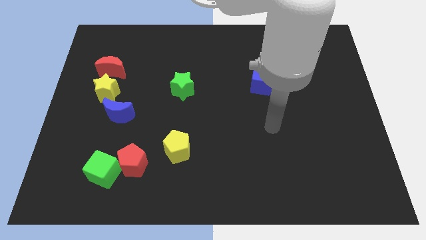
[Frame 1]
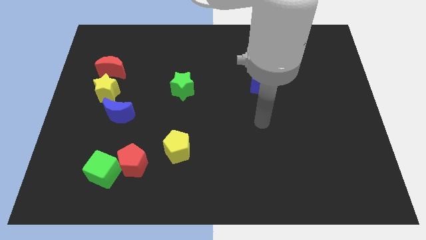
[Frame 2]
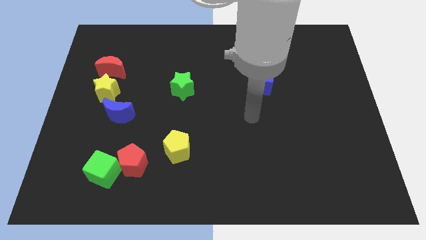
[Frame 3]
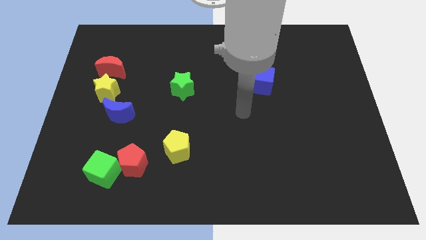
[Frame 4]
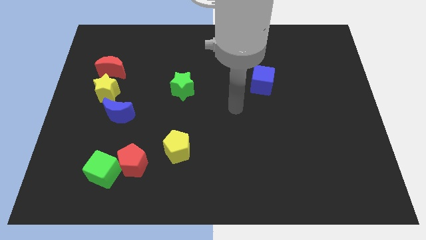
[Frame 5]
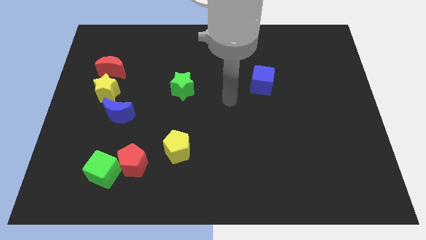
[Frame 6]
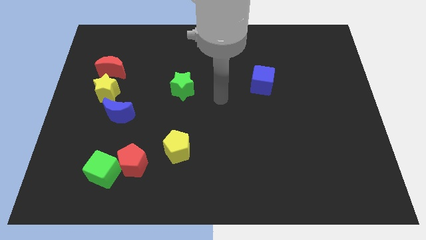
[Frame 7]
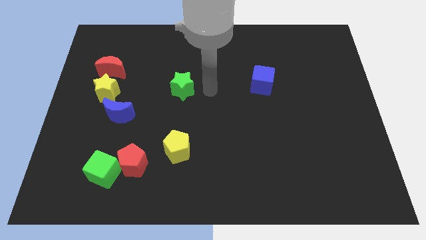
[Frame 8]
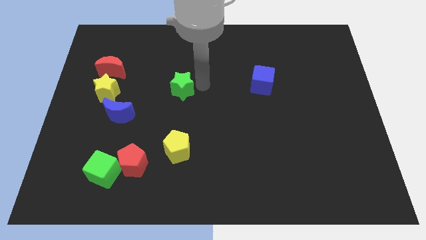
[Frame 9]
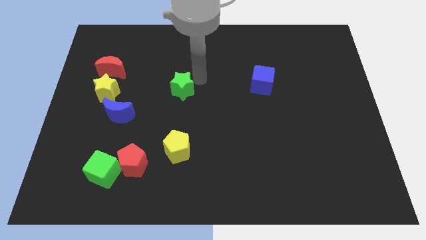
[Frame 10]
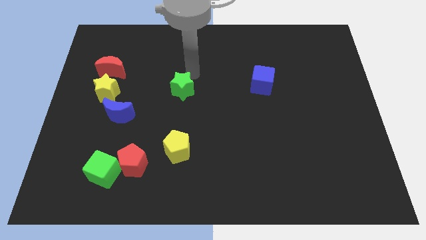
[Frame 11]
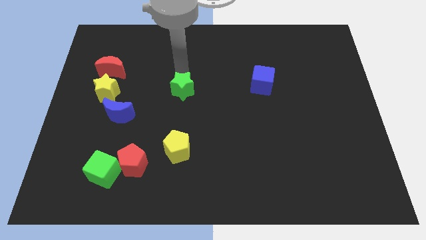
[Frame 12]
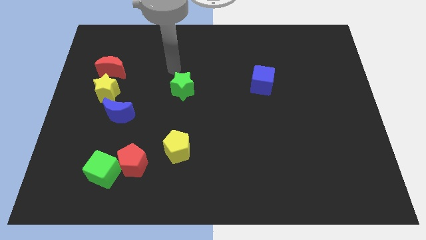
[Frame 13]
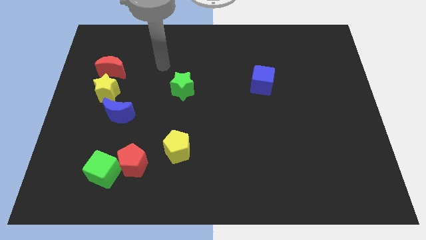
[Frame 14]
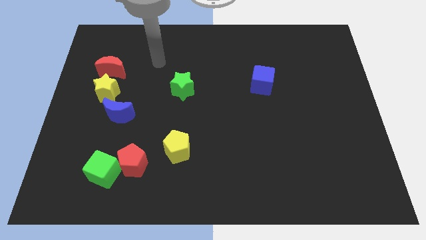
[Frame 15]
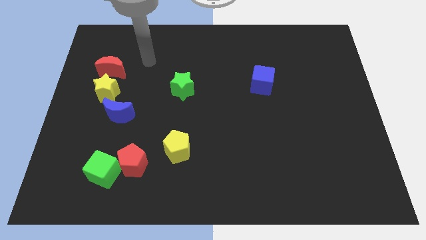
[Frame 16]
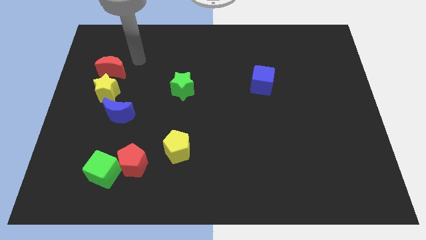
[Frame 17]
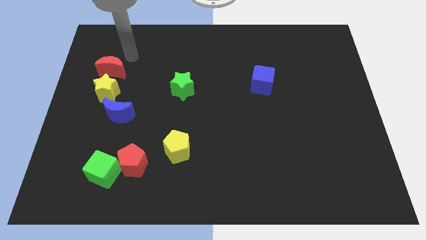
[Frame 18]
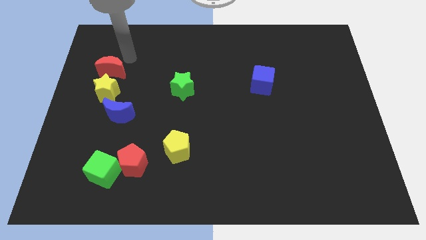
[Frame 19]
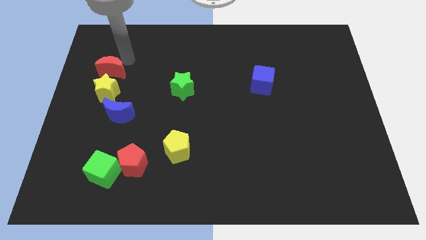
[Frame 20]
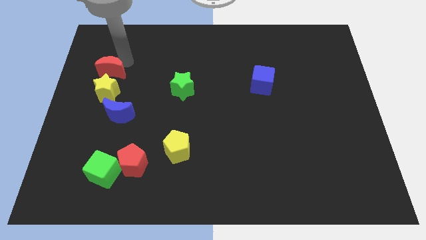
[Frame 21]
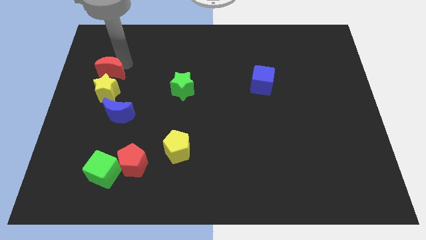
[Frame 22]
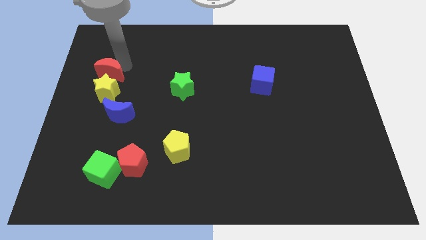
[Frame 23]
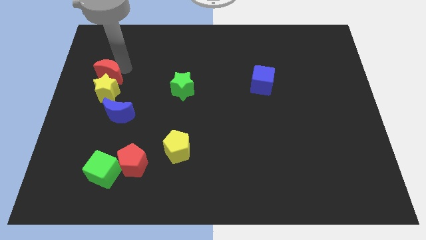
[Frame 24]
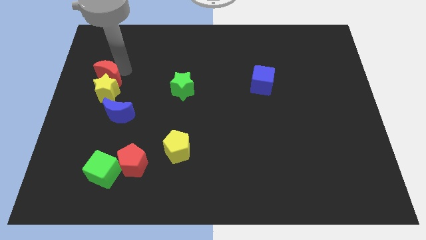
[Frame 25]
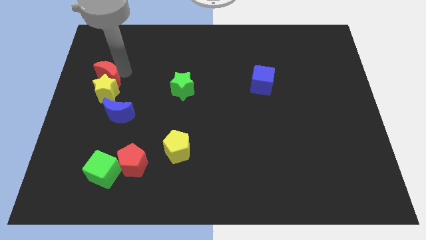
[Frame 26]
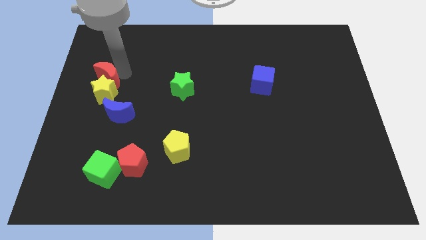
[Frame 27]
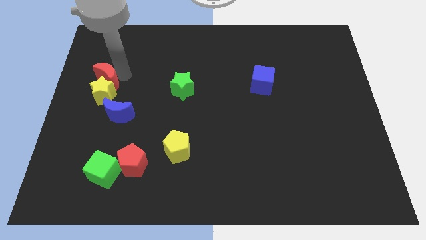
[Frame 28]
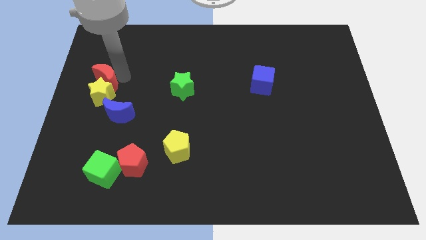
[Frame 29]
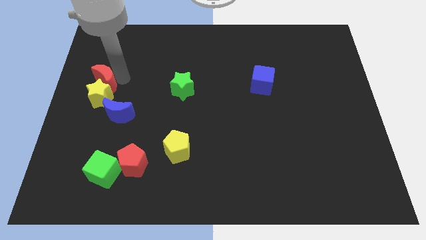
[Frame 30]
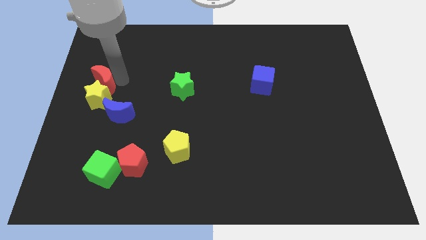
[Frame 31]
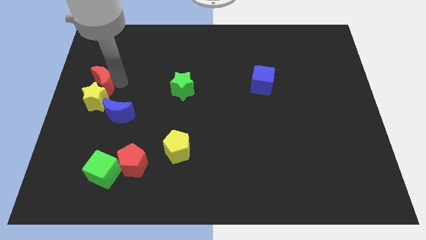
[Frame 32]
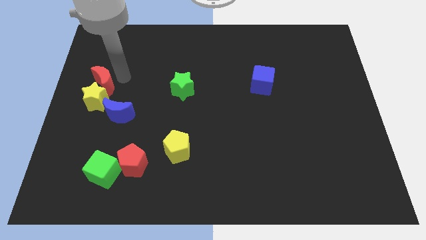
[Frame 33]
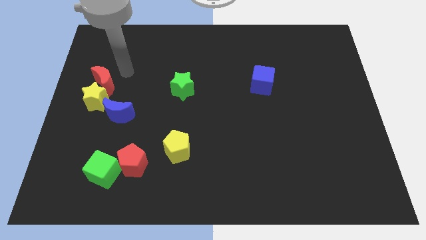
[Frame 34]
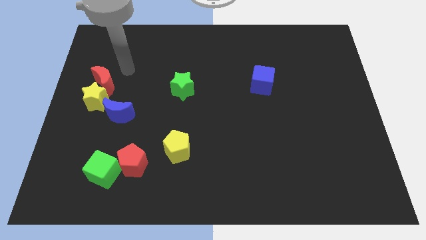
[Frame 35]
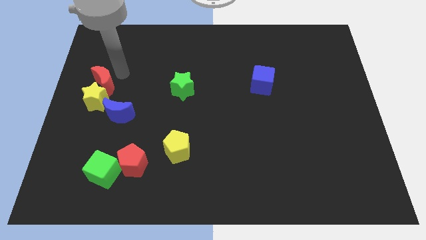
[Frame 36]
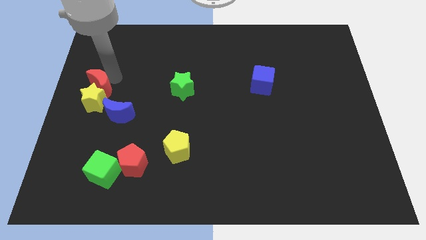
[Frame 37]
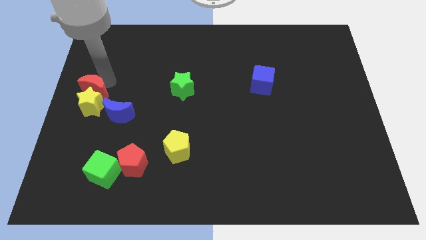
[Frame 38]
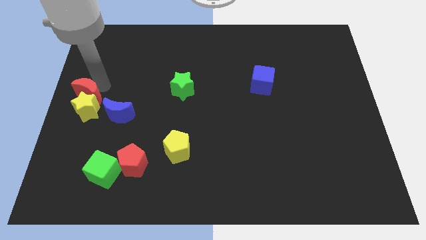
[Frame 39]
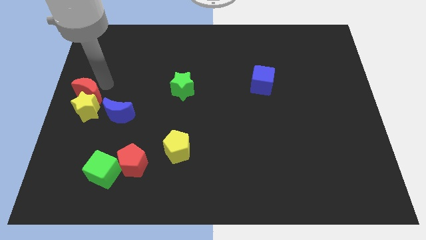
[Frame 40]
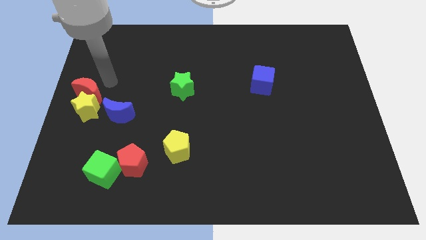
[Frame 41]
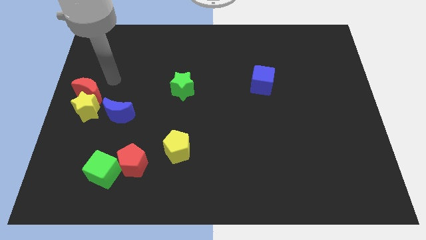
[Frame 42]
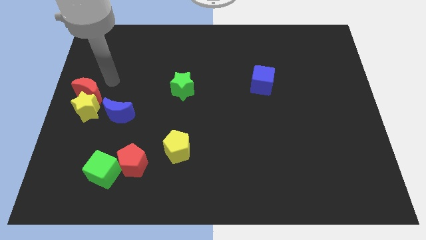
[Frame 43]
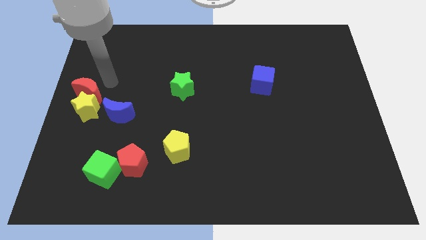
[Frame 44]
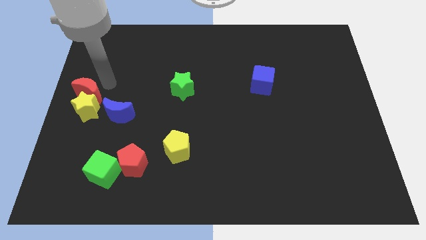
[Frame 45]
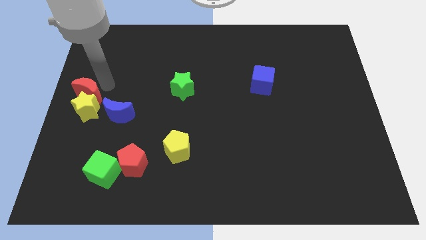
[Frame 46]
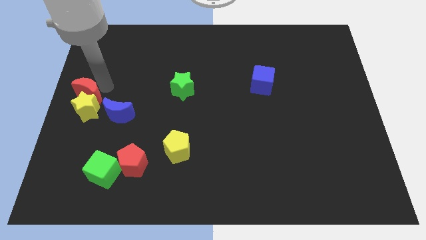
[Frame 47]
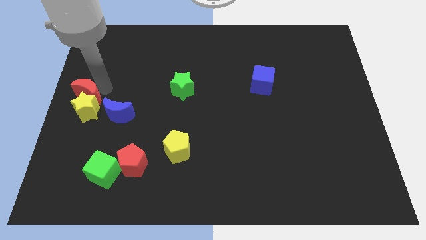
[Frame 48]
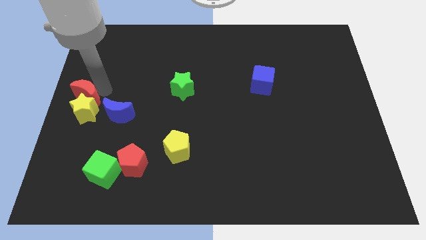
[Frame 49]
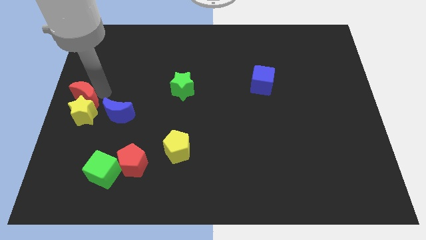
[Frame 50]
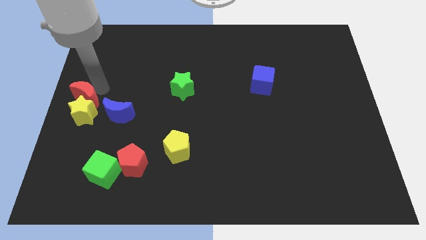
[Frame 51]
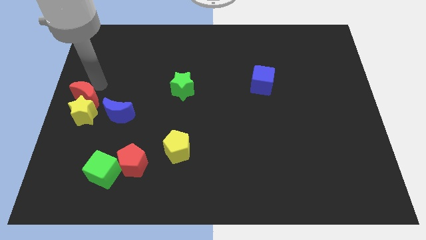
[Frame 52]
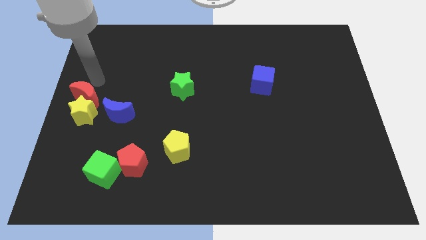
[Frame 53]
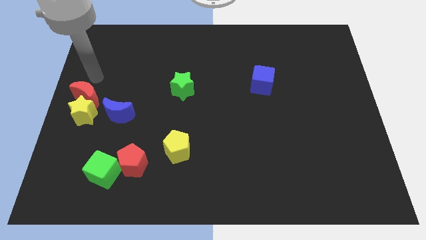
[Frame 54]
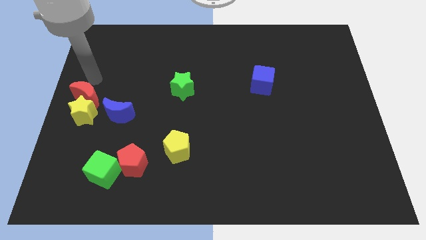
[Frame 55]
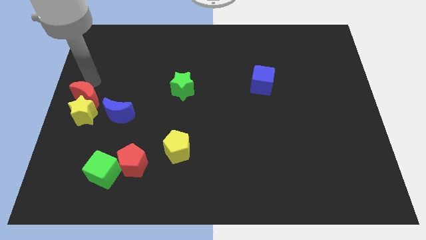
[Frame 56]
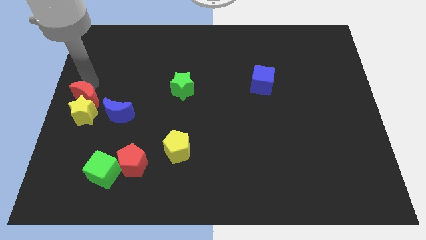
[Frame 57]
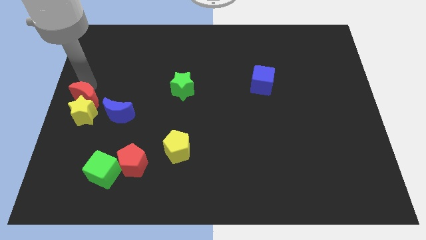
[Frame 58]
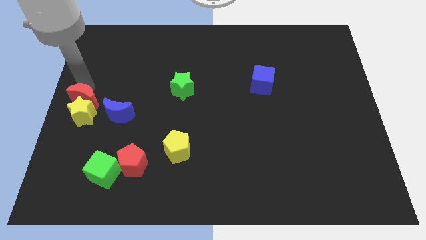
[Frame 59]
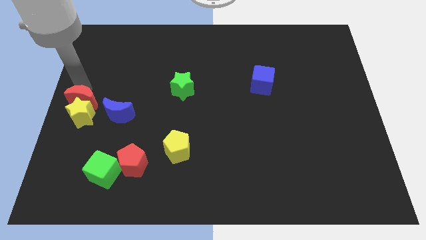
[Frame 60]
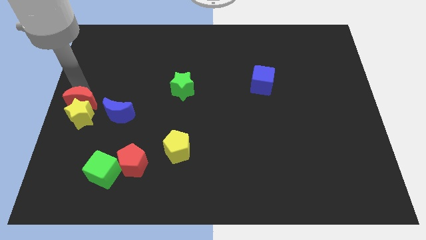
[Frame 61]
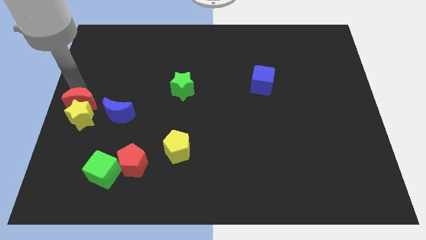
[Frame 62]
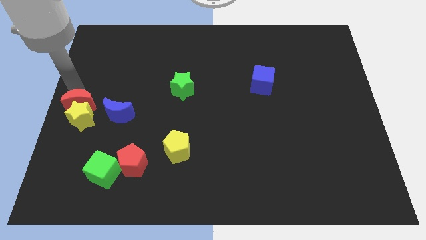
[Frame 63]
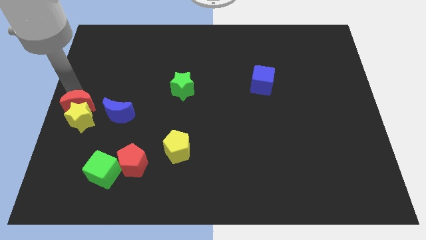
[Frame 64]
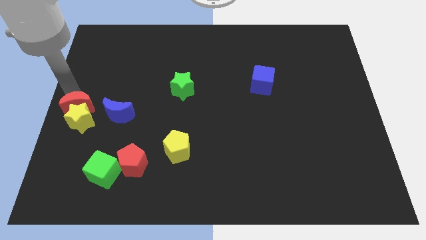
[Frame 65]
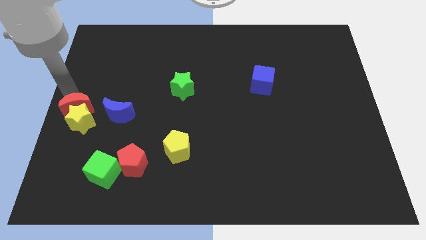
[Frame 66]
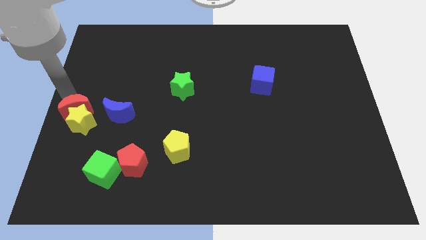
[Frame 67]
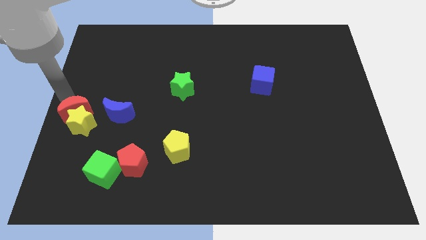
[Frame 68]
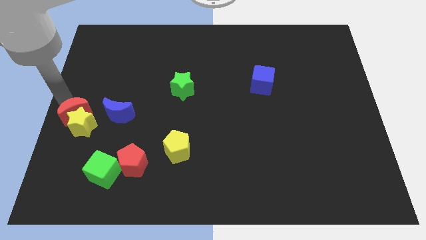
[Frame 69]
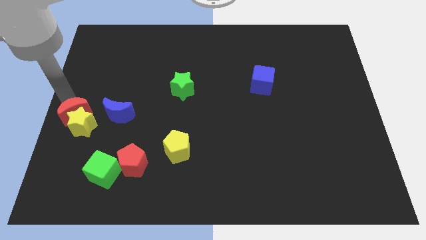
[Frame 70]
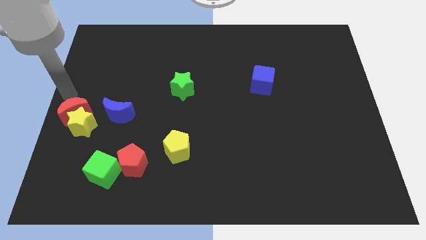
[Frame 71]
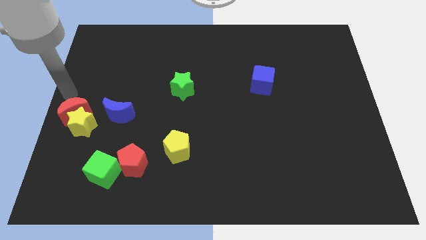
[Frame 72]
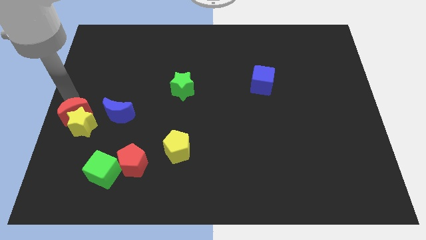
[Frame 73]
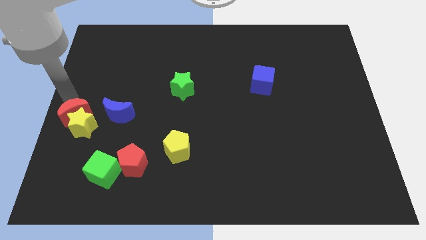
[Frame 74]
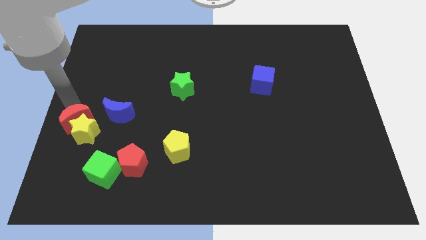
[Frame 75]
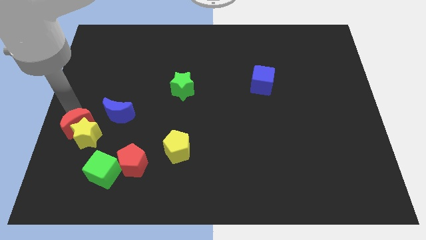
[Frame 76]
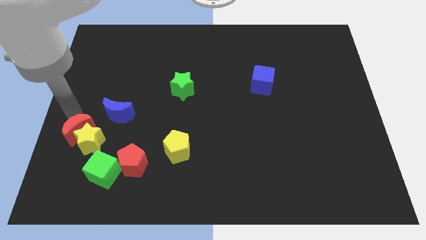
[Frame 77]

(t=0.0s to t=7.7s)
move the red moon diagonally up and to the left of the green cube
